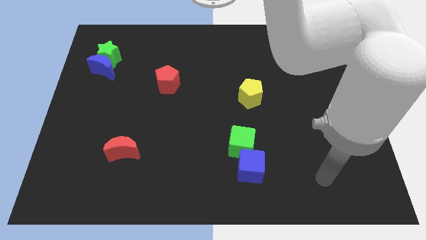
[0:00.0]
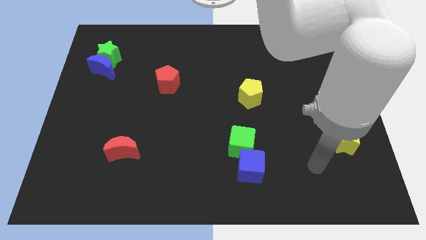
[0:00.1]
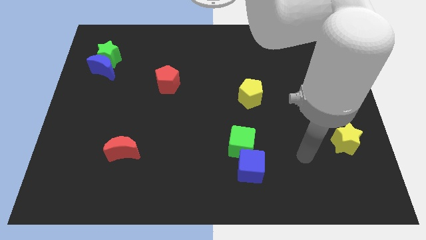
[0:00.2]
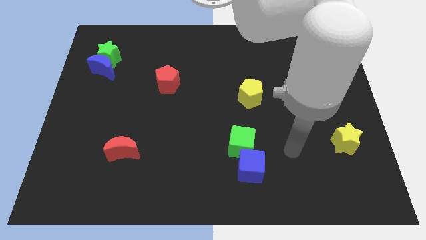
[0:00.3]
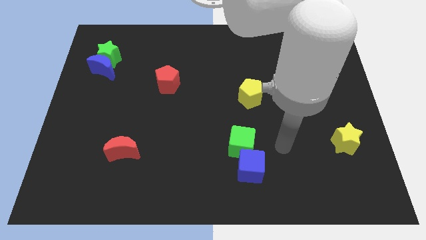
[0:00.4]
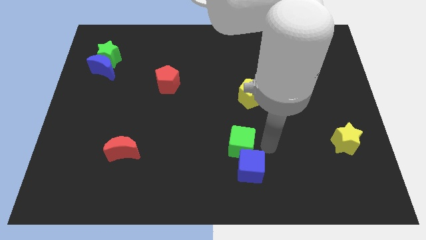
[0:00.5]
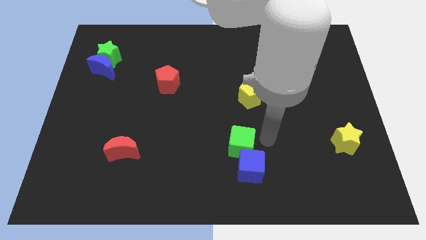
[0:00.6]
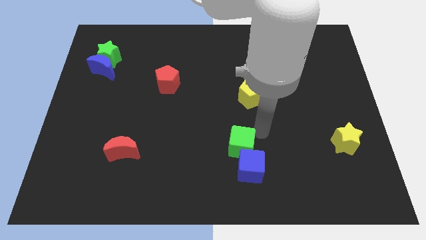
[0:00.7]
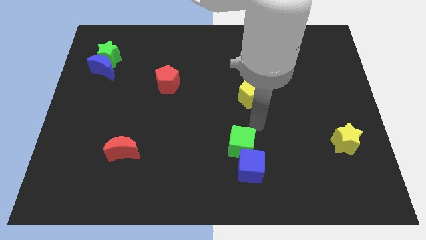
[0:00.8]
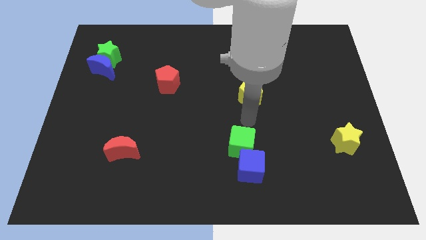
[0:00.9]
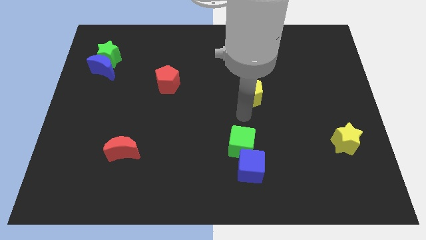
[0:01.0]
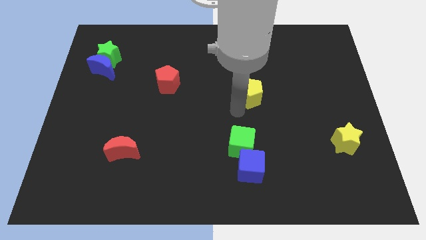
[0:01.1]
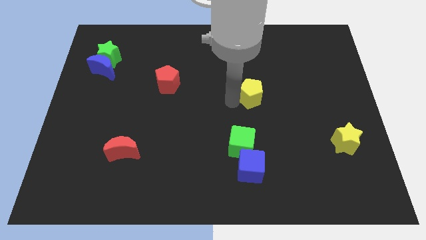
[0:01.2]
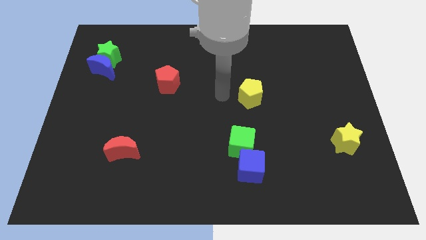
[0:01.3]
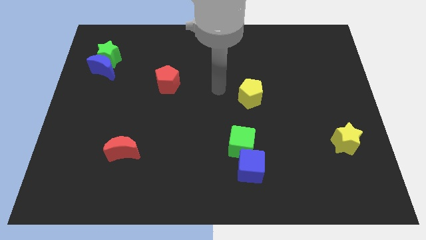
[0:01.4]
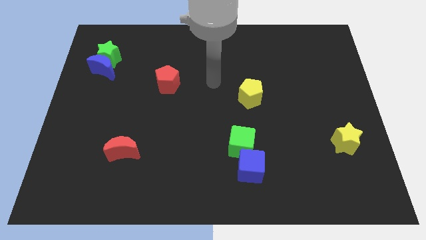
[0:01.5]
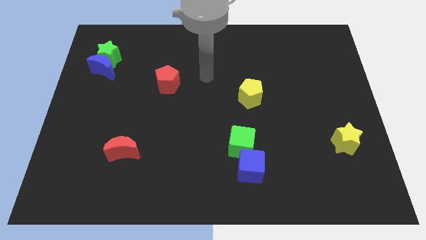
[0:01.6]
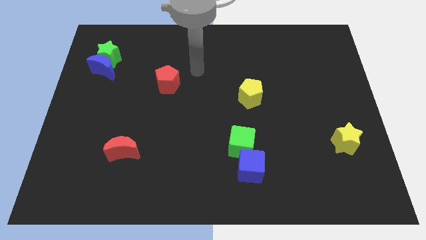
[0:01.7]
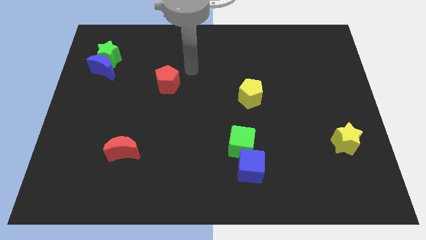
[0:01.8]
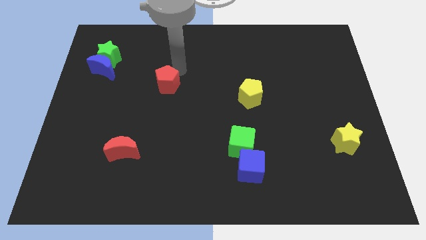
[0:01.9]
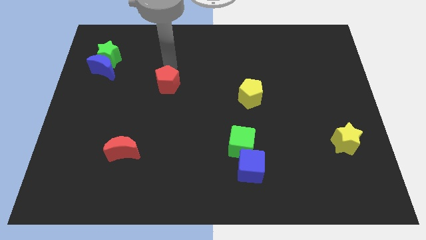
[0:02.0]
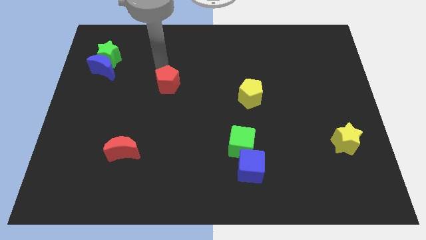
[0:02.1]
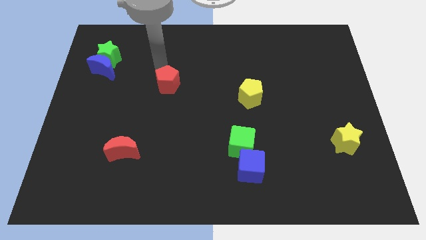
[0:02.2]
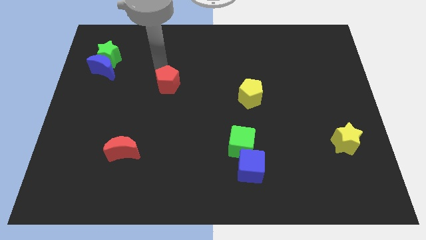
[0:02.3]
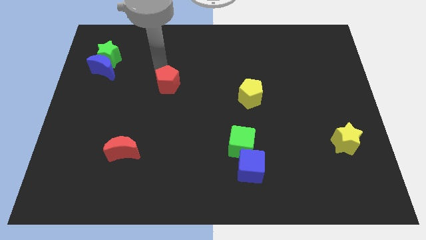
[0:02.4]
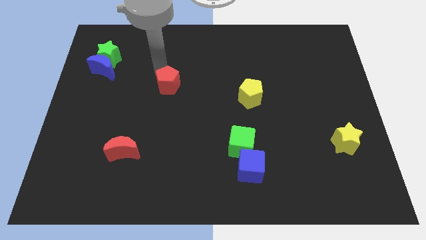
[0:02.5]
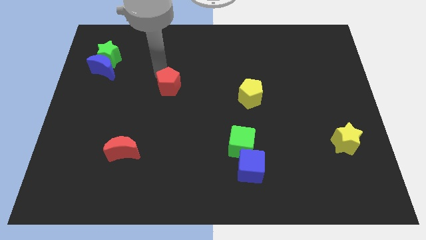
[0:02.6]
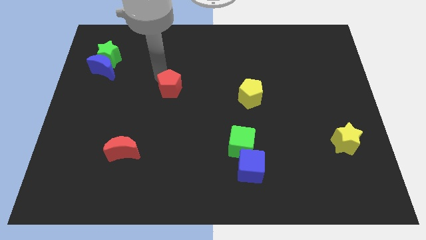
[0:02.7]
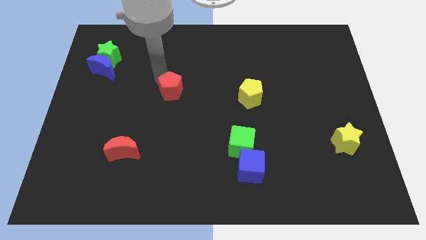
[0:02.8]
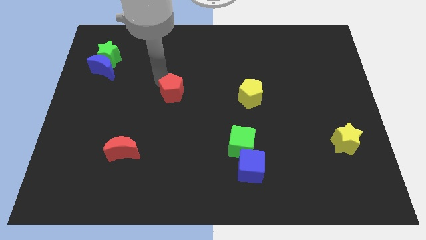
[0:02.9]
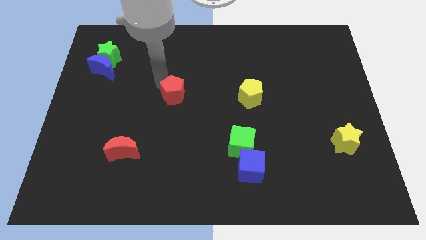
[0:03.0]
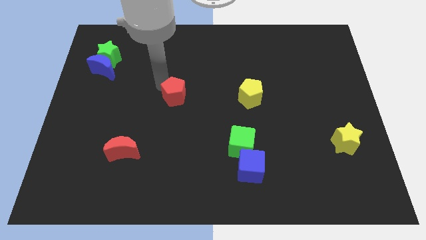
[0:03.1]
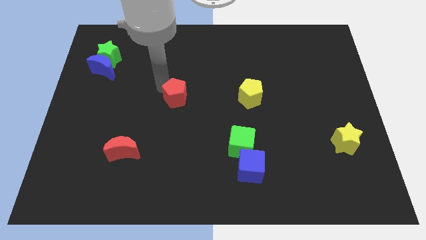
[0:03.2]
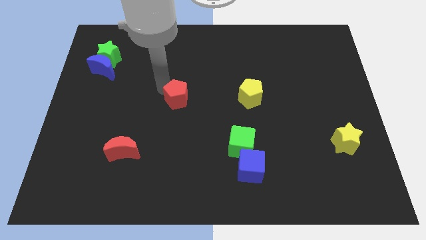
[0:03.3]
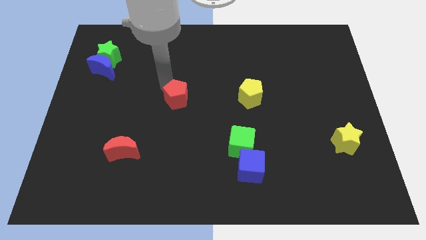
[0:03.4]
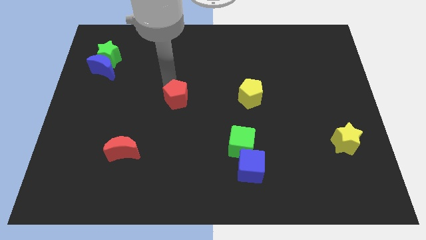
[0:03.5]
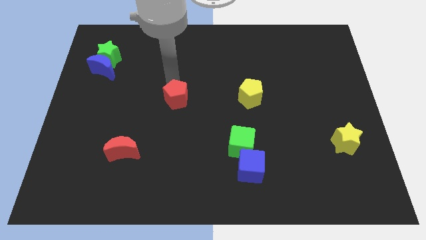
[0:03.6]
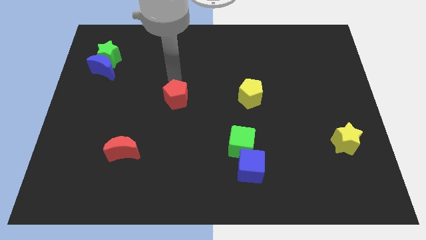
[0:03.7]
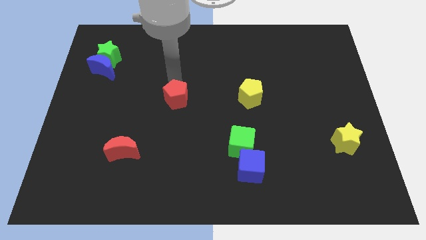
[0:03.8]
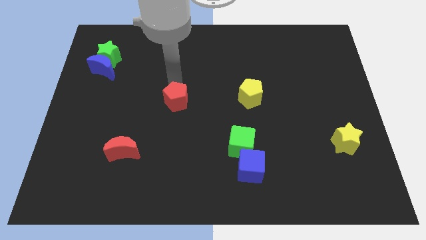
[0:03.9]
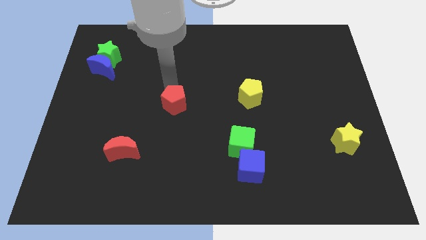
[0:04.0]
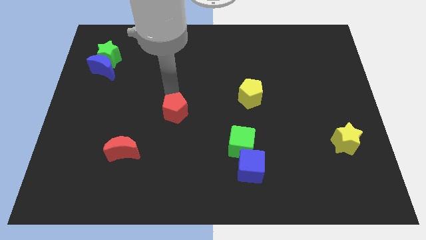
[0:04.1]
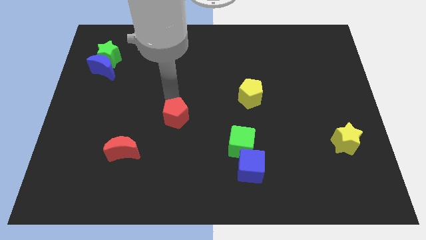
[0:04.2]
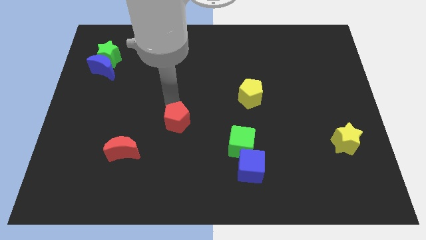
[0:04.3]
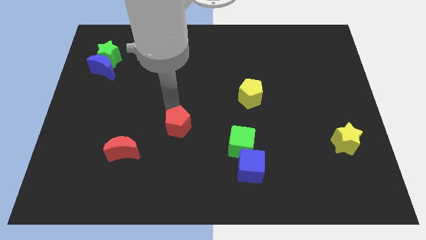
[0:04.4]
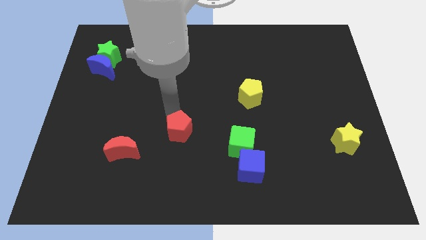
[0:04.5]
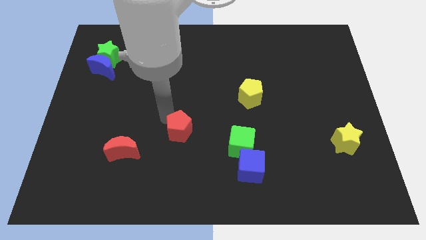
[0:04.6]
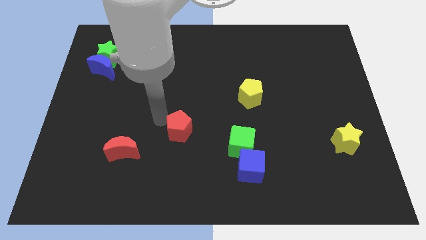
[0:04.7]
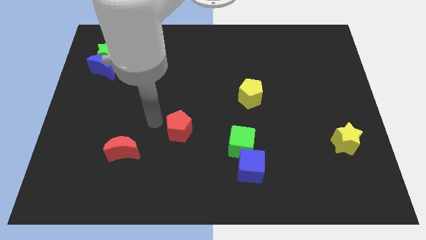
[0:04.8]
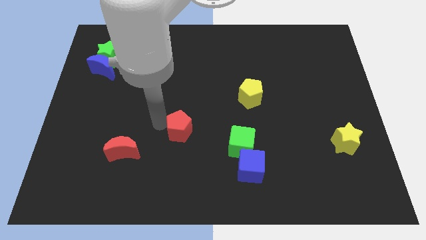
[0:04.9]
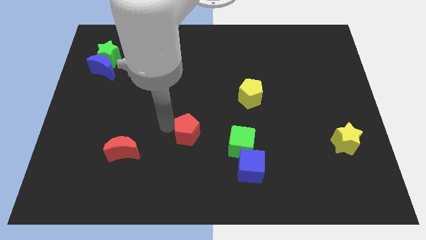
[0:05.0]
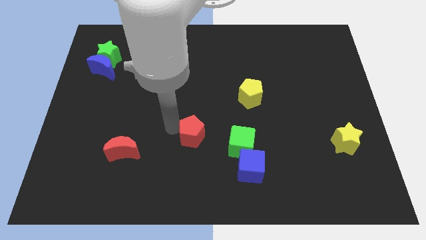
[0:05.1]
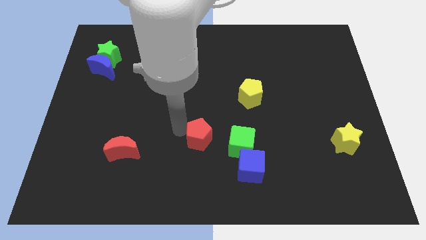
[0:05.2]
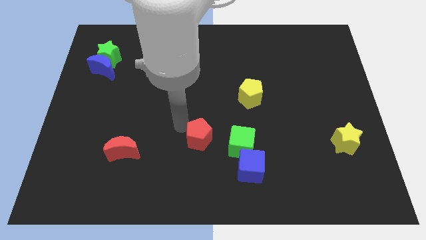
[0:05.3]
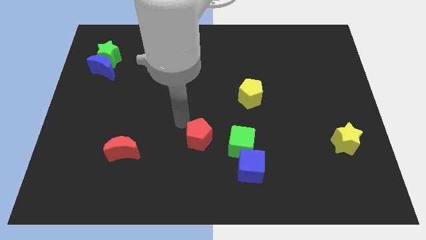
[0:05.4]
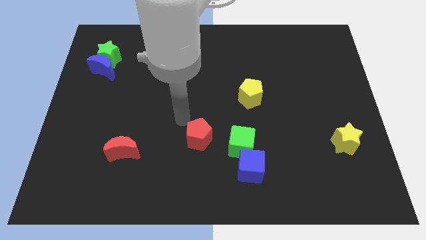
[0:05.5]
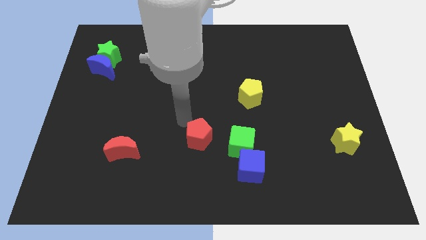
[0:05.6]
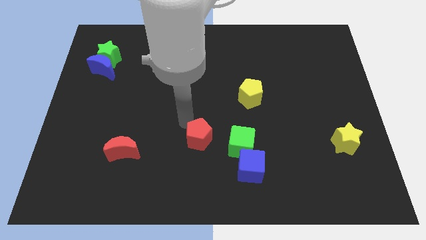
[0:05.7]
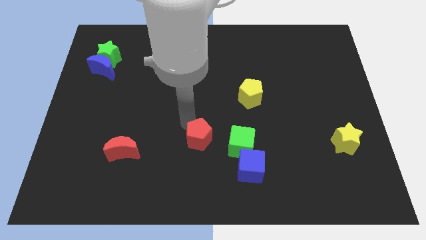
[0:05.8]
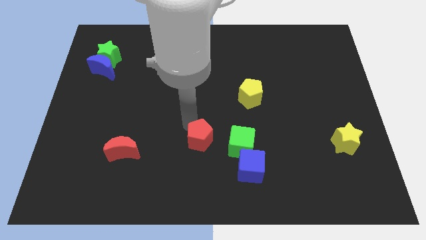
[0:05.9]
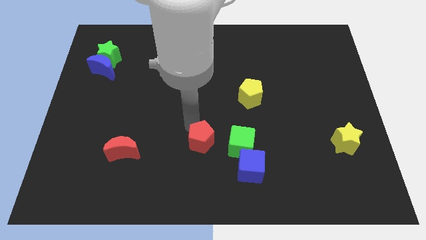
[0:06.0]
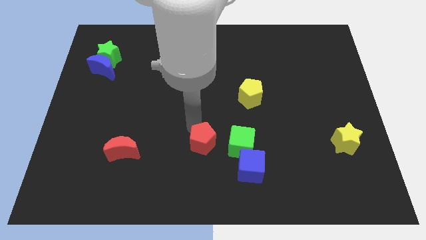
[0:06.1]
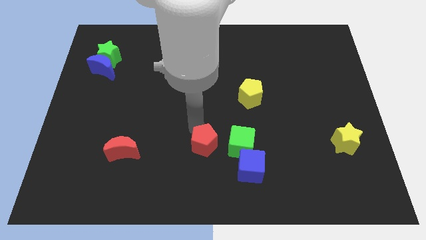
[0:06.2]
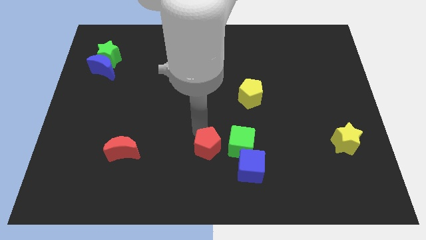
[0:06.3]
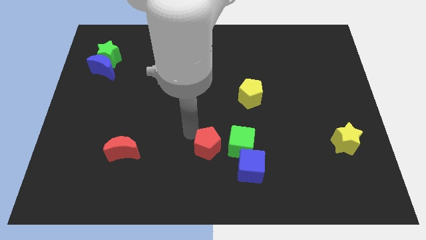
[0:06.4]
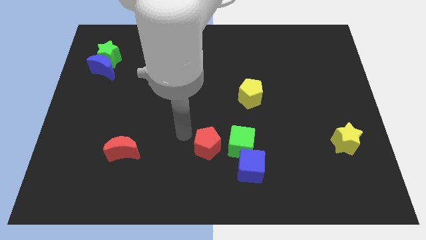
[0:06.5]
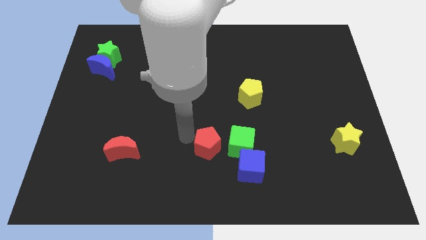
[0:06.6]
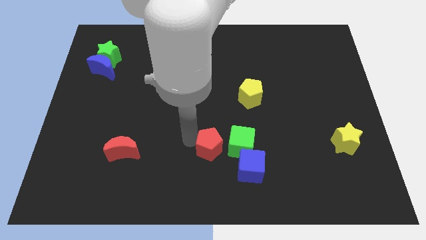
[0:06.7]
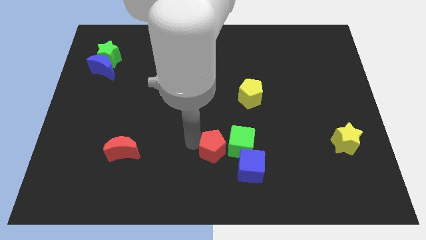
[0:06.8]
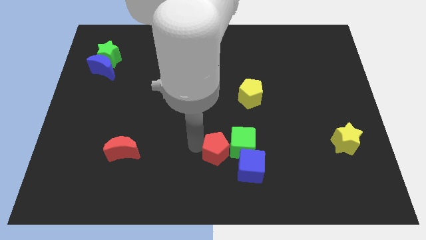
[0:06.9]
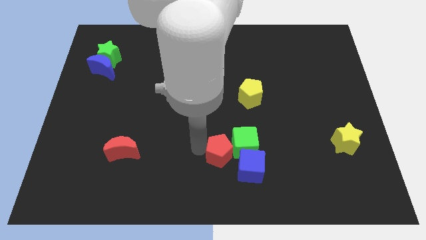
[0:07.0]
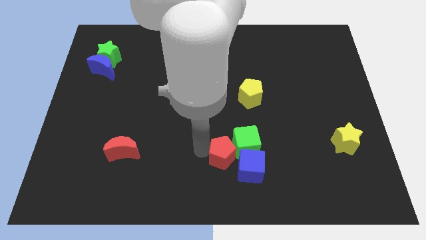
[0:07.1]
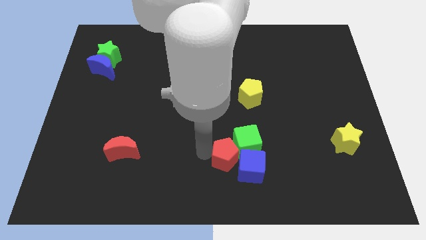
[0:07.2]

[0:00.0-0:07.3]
put the red pentagon next to the blue cube
